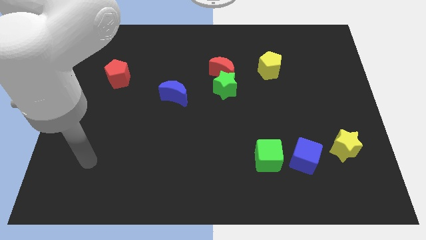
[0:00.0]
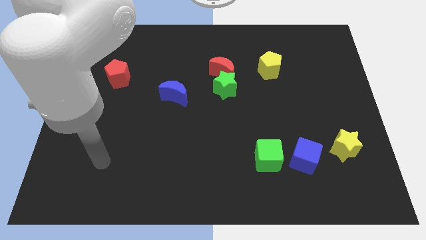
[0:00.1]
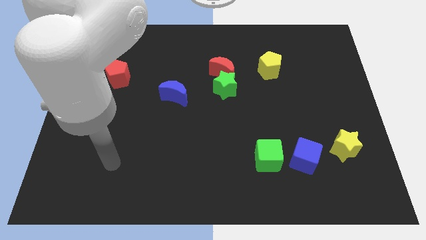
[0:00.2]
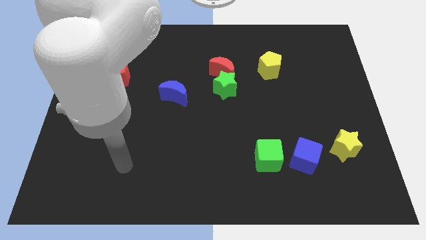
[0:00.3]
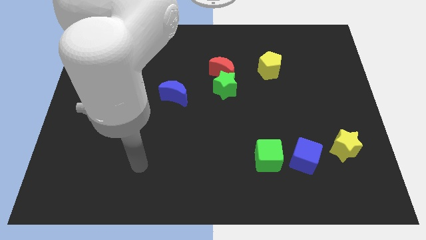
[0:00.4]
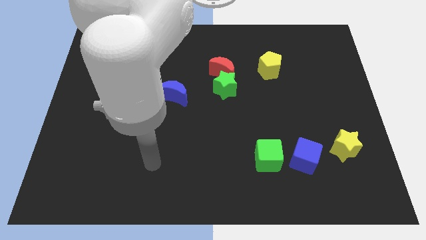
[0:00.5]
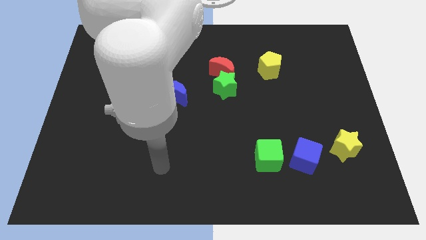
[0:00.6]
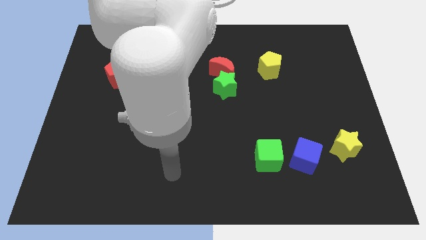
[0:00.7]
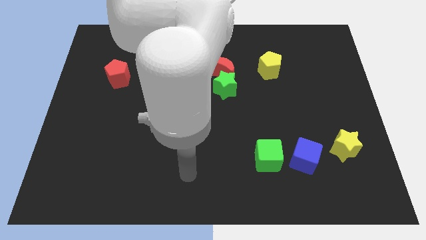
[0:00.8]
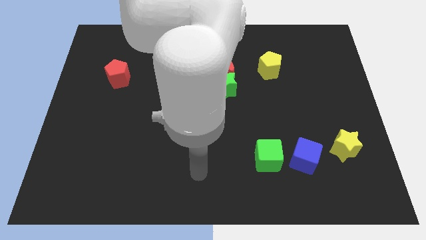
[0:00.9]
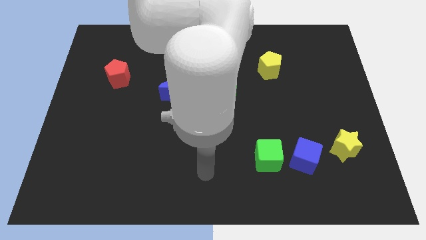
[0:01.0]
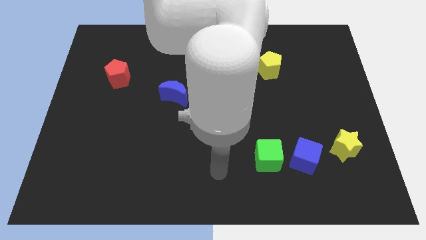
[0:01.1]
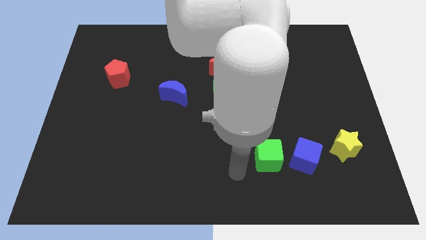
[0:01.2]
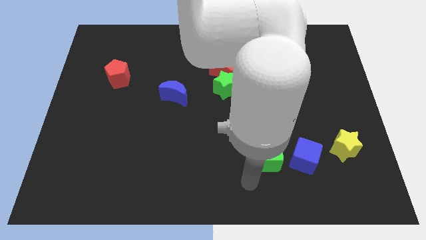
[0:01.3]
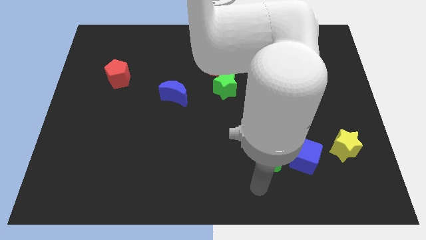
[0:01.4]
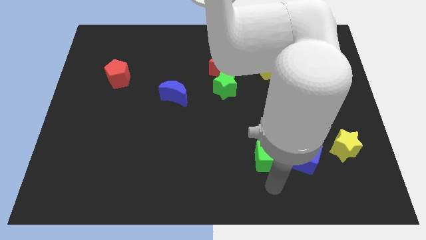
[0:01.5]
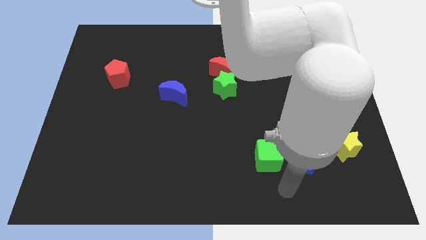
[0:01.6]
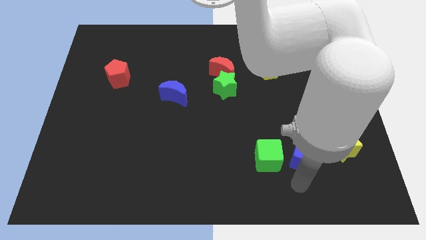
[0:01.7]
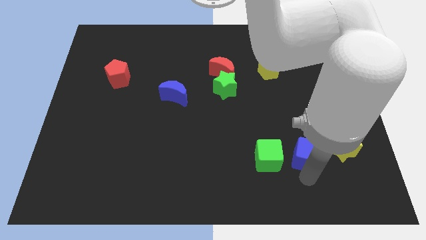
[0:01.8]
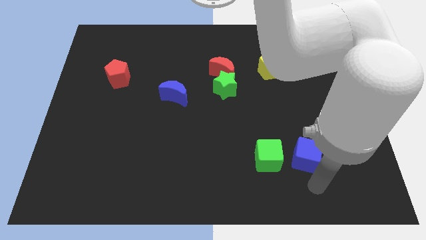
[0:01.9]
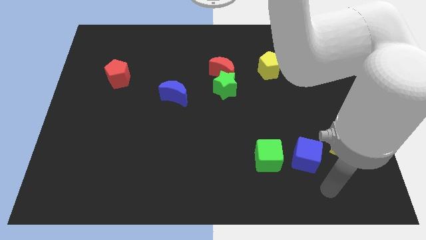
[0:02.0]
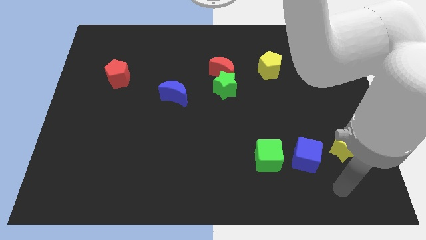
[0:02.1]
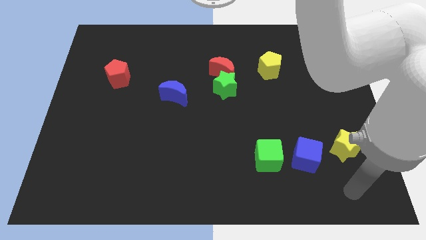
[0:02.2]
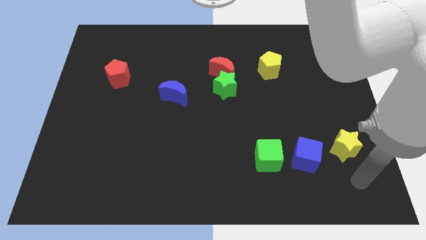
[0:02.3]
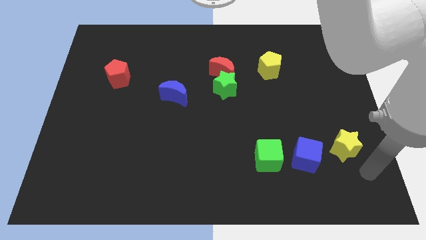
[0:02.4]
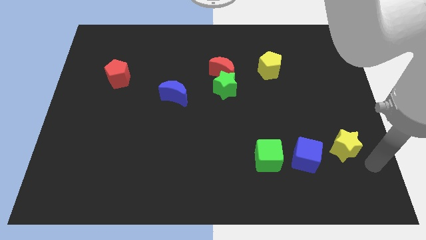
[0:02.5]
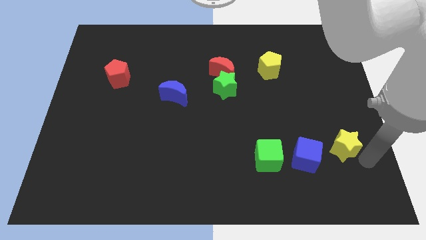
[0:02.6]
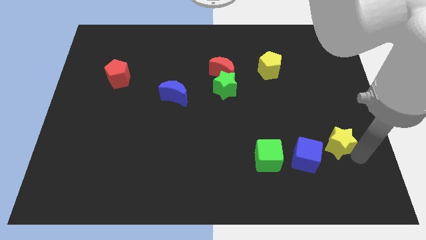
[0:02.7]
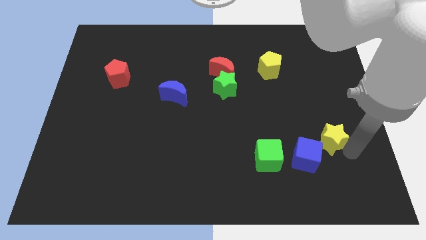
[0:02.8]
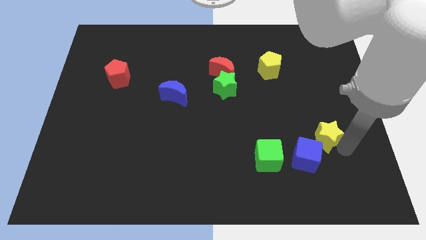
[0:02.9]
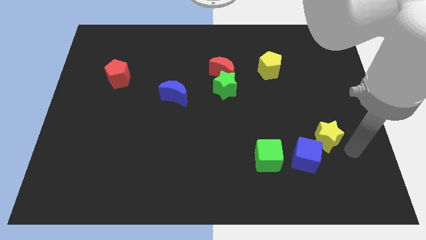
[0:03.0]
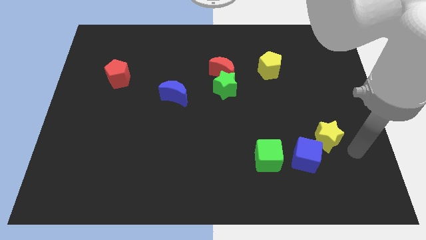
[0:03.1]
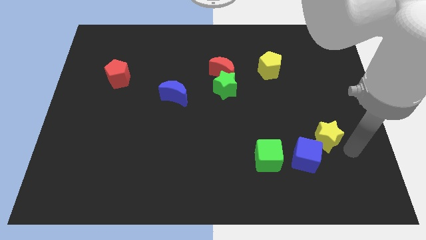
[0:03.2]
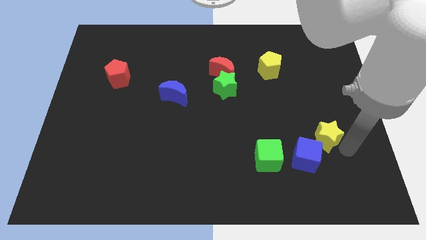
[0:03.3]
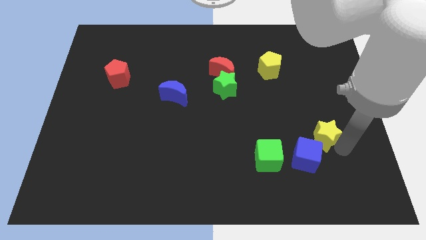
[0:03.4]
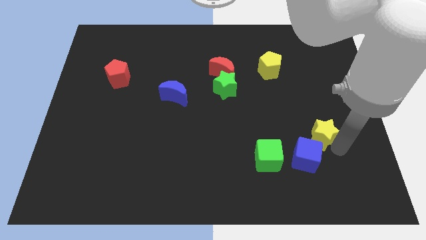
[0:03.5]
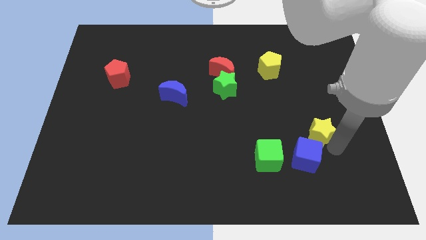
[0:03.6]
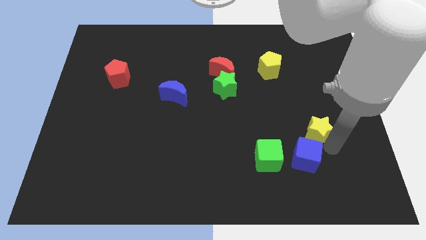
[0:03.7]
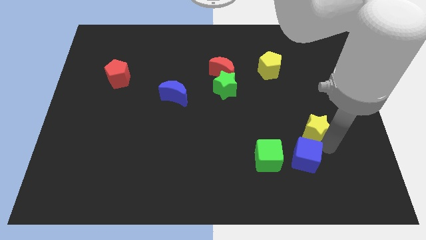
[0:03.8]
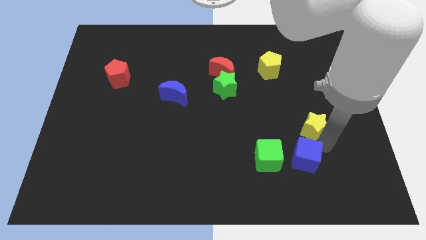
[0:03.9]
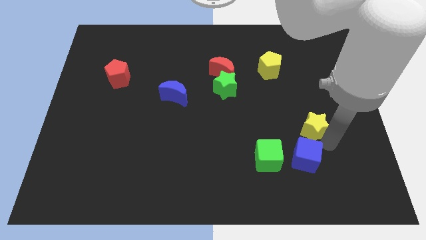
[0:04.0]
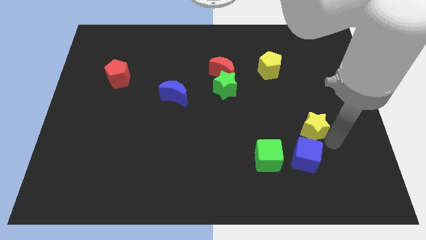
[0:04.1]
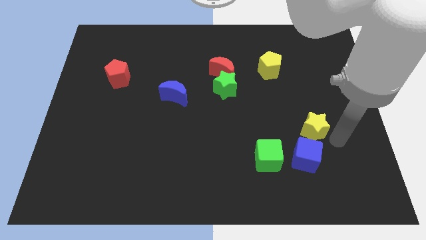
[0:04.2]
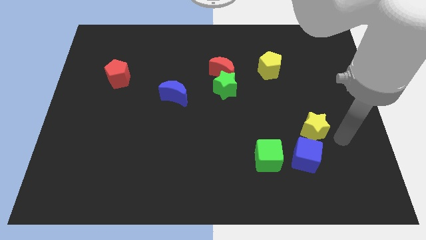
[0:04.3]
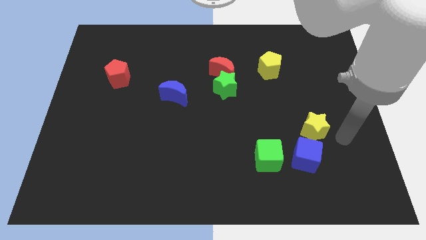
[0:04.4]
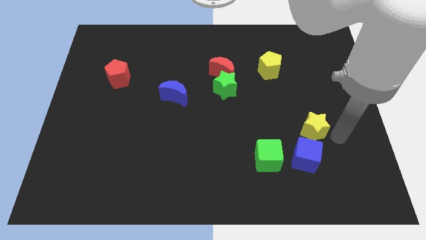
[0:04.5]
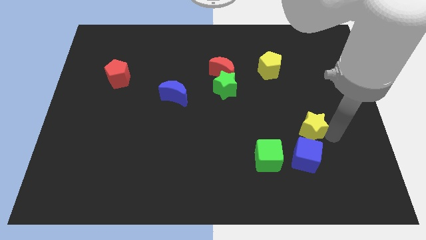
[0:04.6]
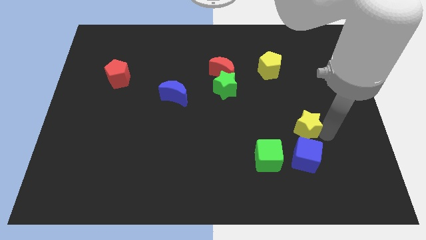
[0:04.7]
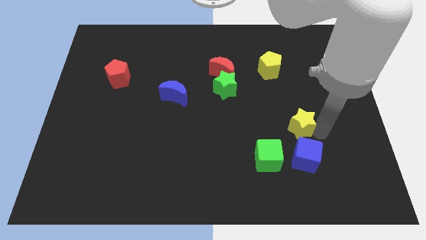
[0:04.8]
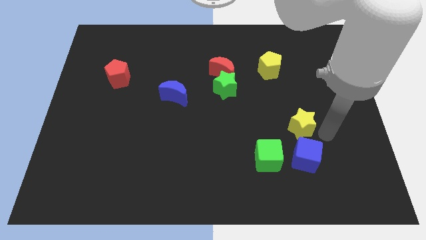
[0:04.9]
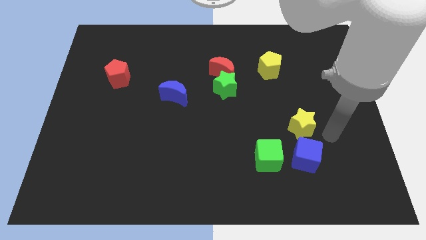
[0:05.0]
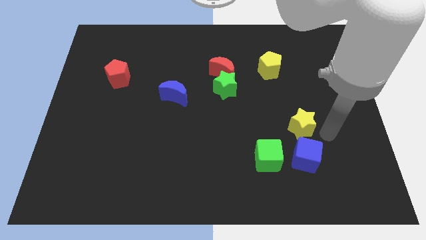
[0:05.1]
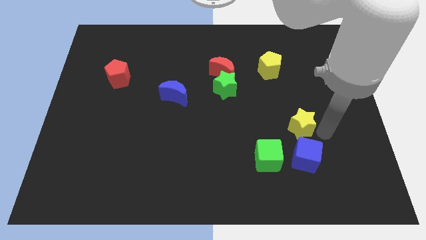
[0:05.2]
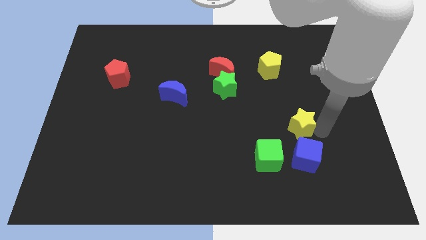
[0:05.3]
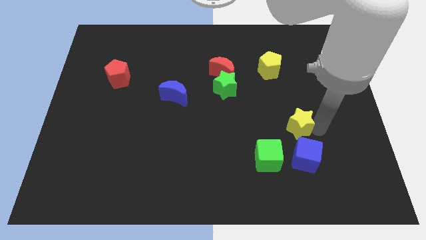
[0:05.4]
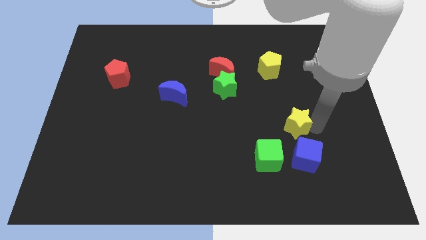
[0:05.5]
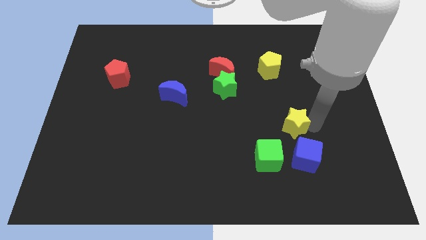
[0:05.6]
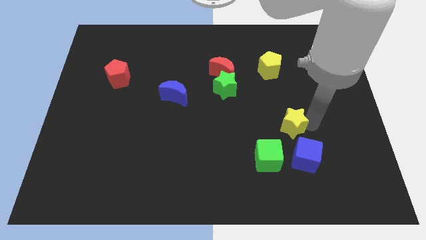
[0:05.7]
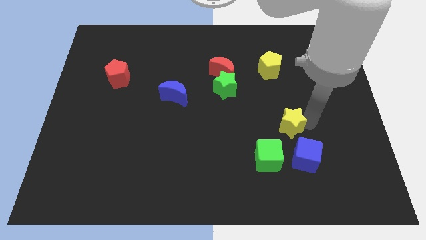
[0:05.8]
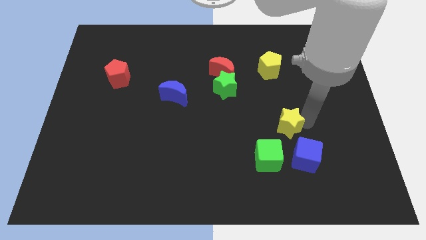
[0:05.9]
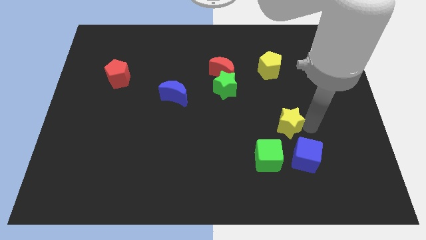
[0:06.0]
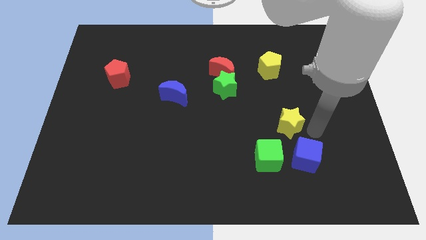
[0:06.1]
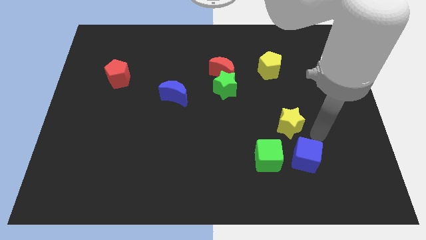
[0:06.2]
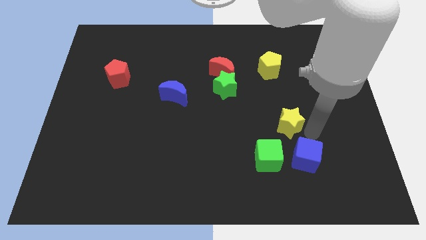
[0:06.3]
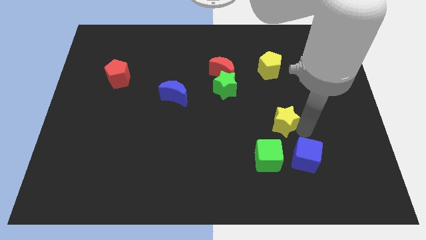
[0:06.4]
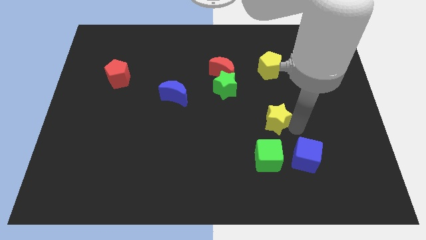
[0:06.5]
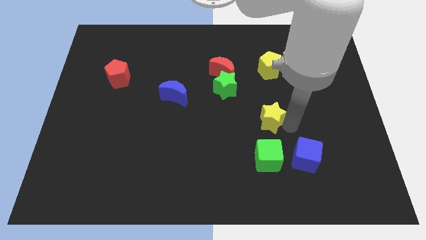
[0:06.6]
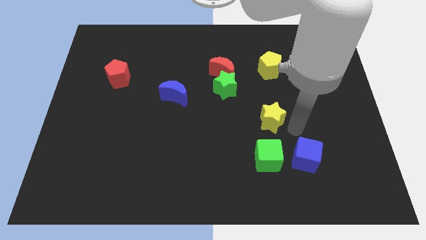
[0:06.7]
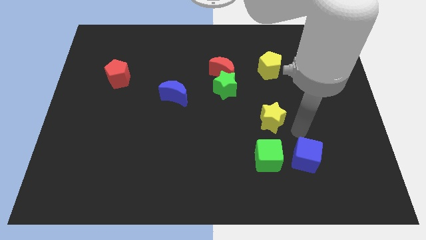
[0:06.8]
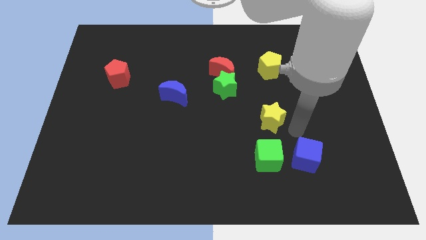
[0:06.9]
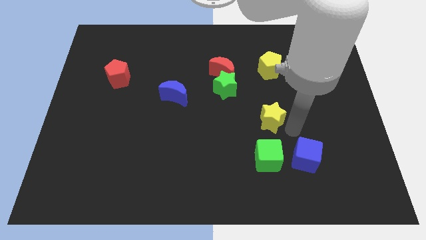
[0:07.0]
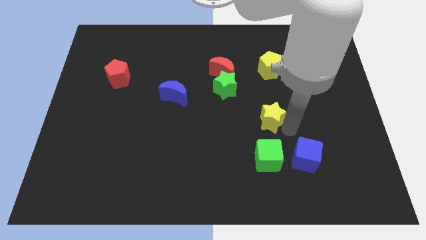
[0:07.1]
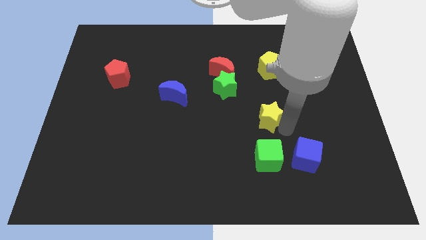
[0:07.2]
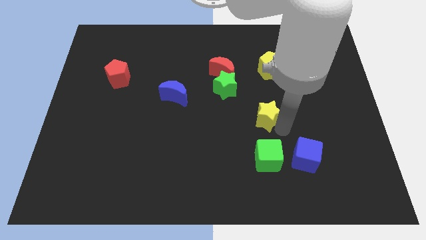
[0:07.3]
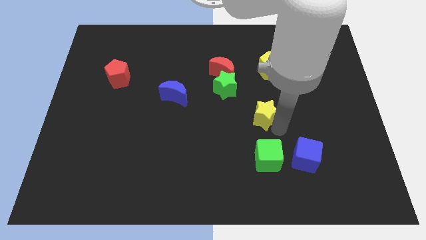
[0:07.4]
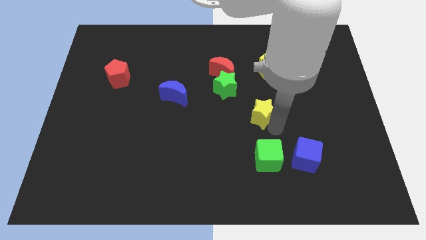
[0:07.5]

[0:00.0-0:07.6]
move the yellow star to the middle
